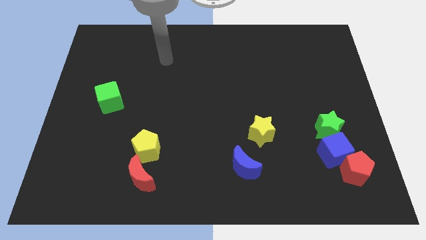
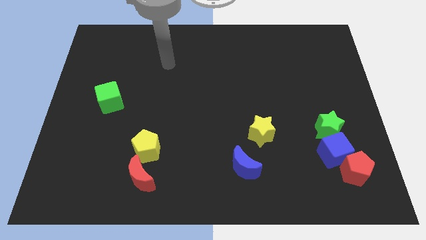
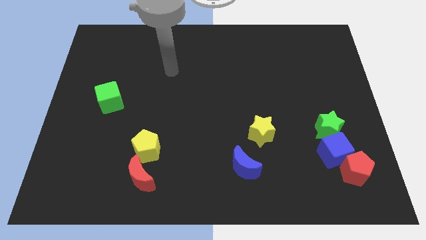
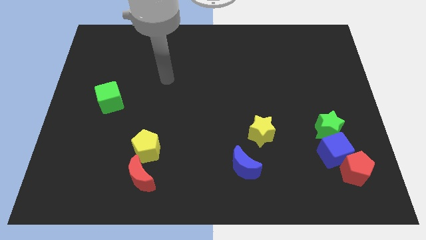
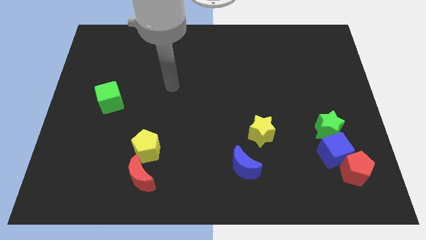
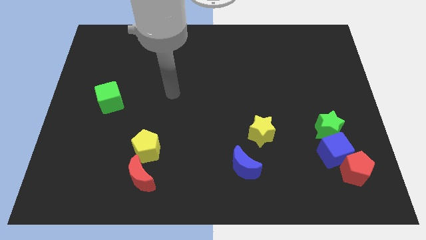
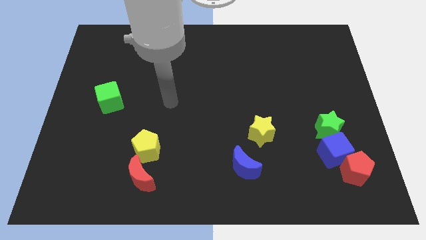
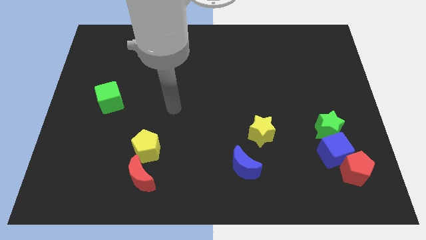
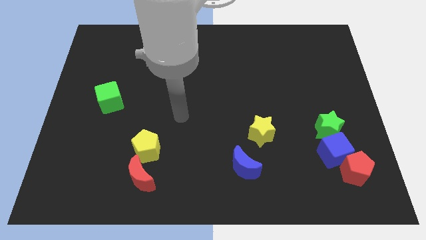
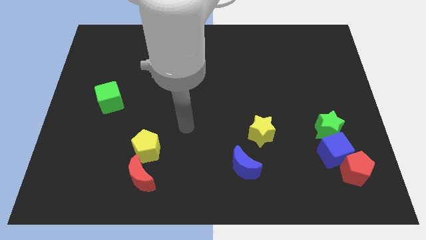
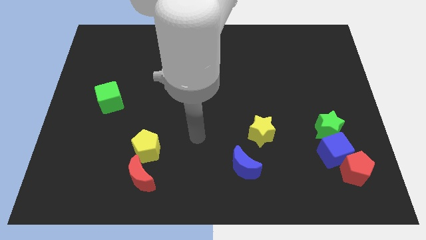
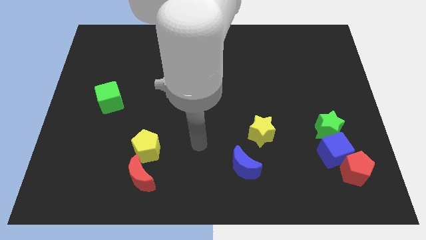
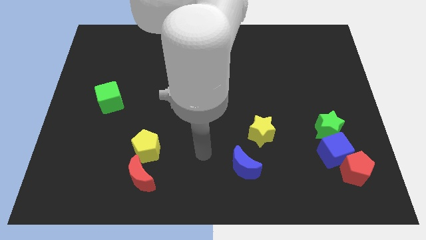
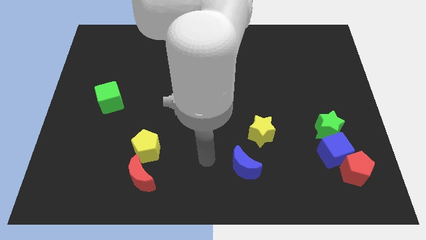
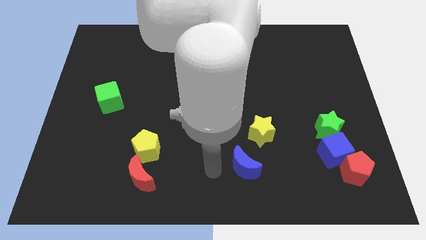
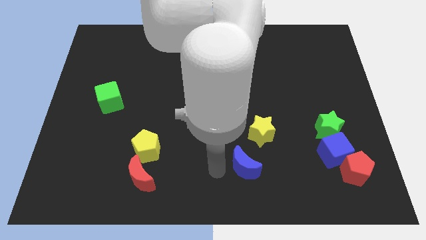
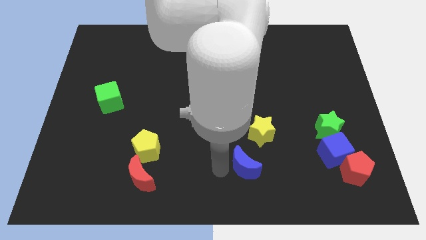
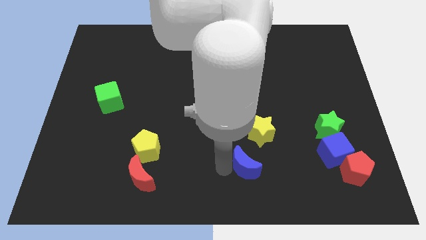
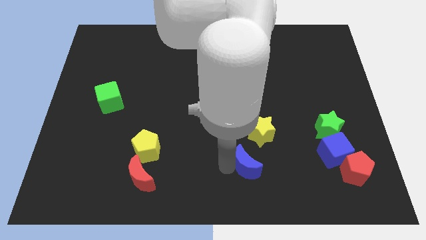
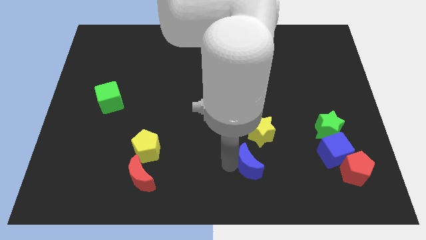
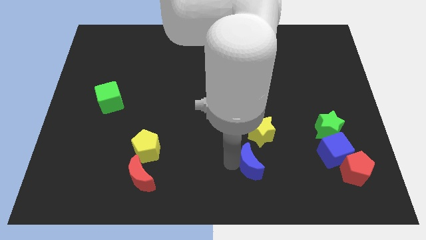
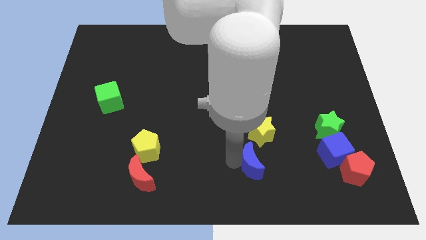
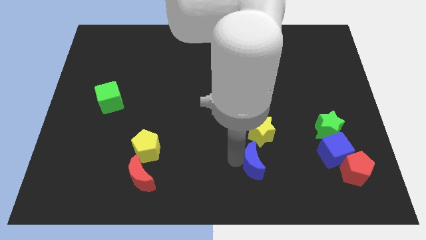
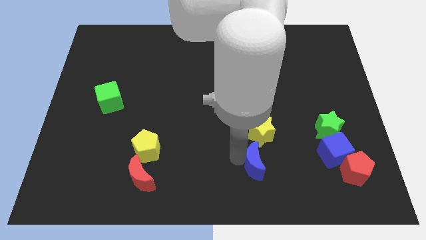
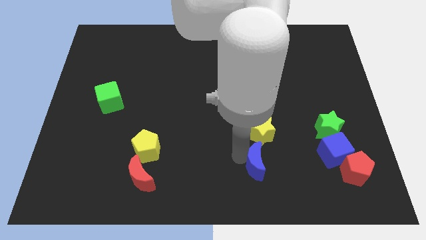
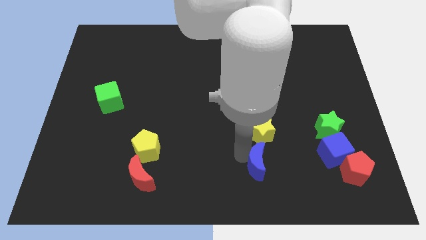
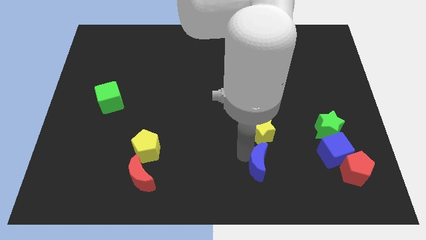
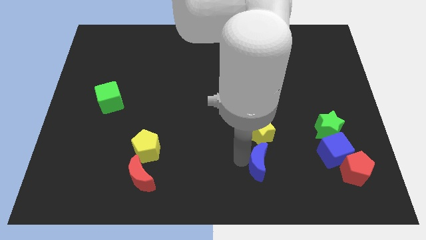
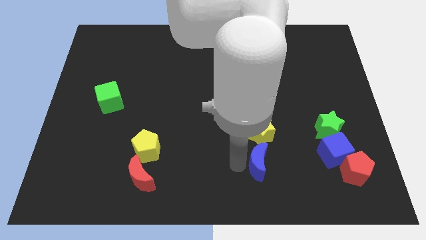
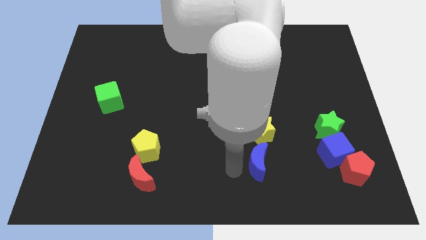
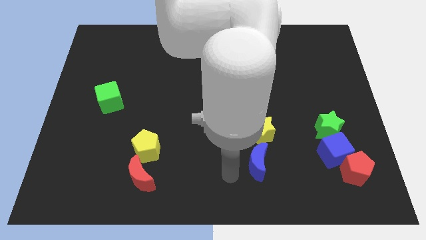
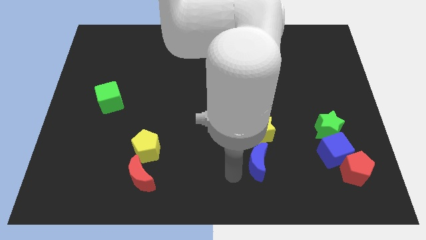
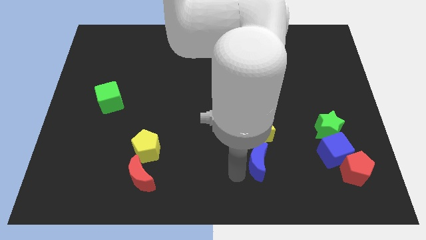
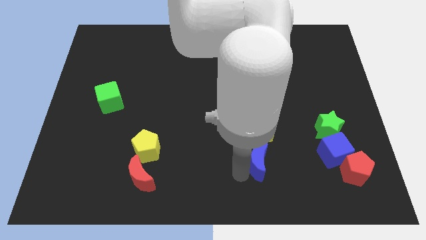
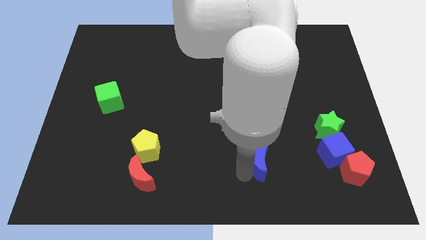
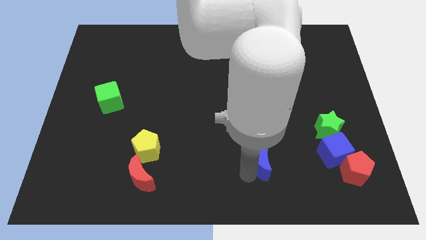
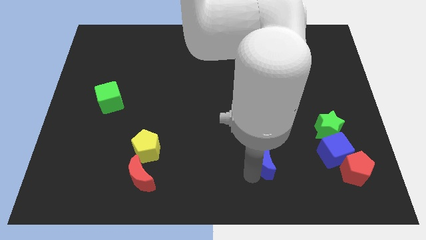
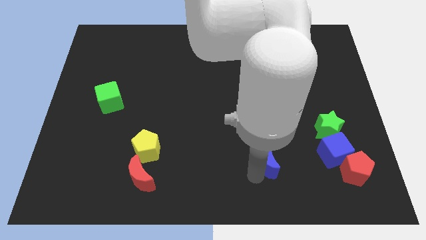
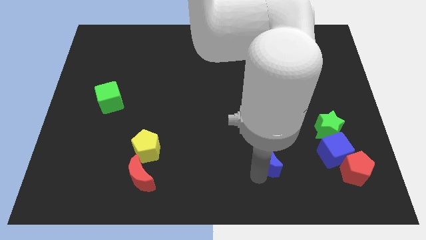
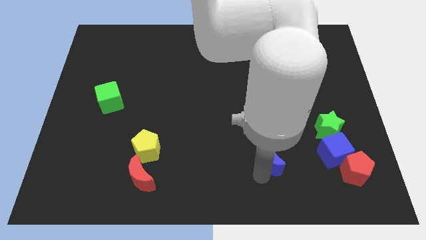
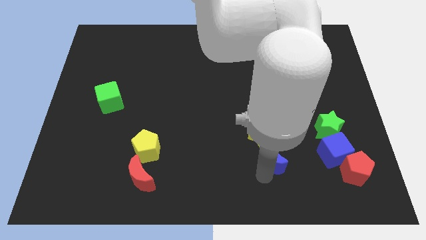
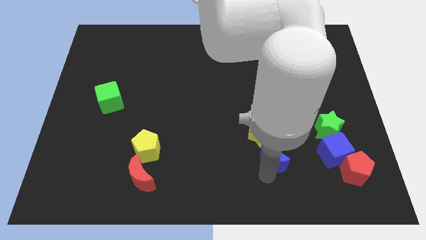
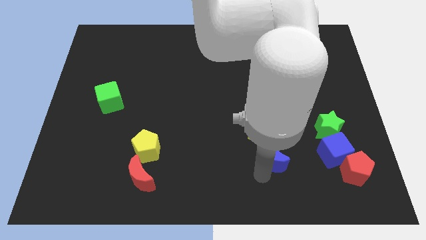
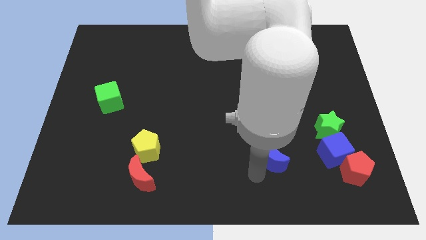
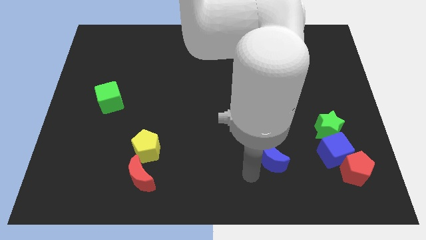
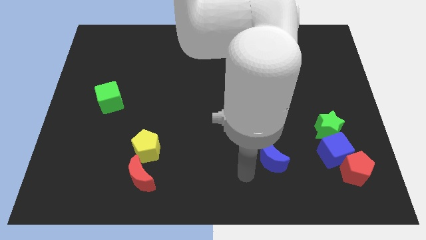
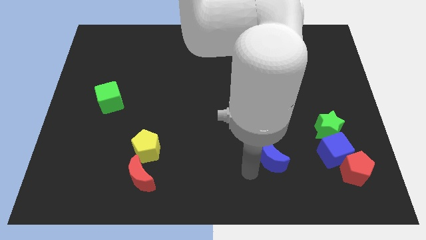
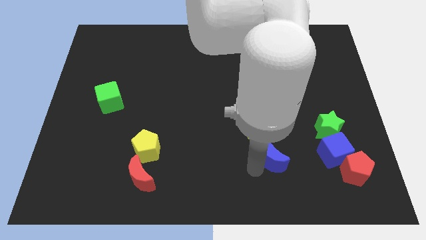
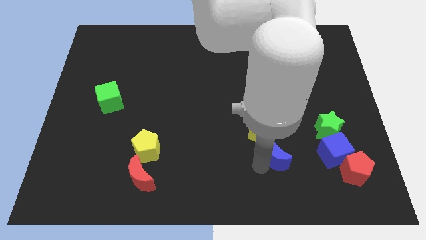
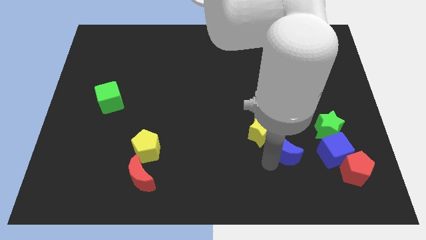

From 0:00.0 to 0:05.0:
move the blue moon a little bit up and then to the right

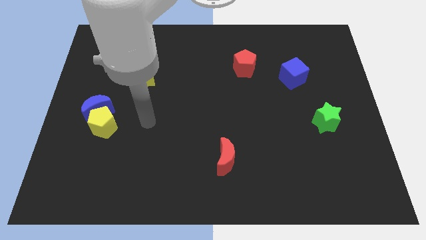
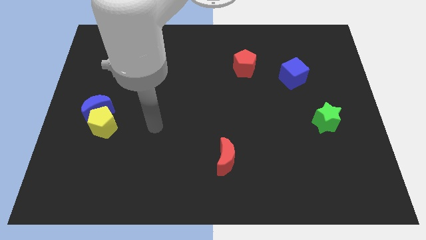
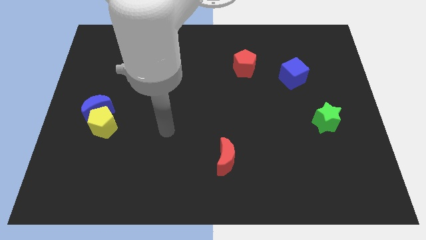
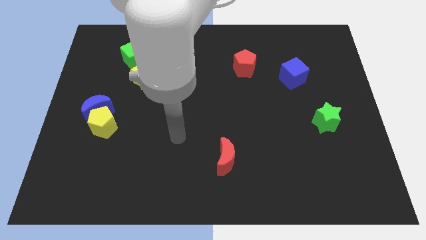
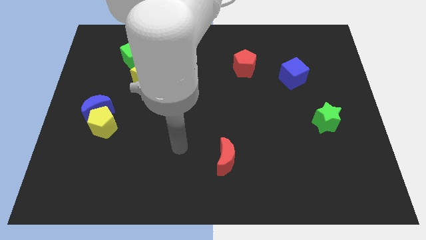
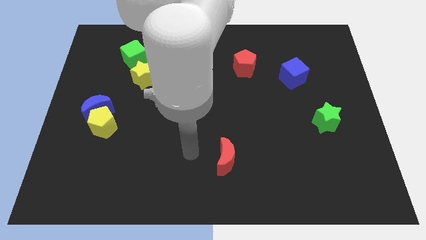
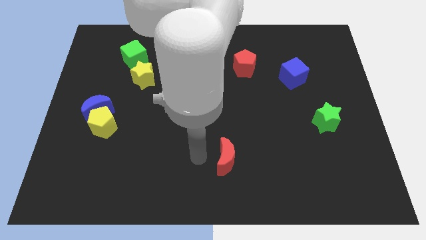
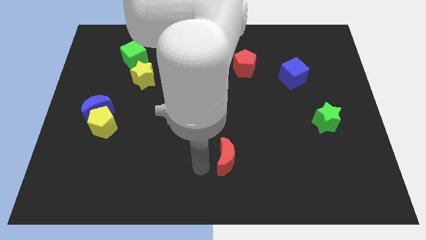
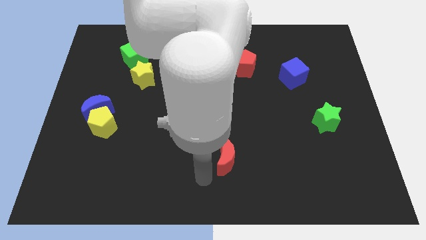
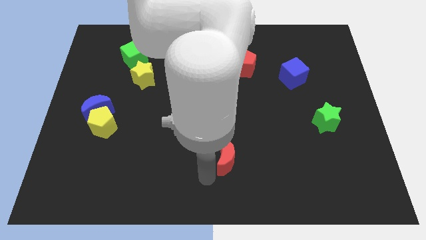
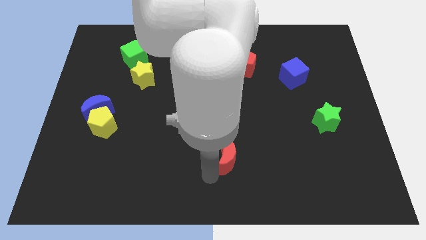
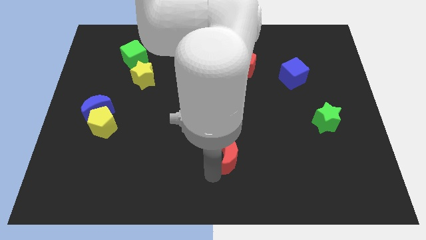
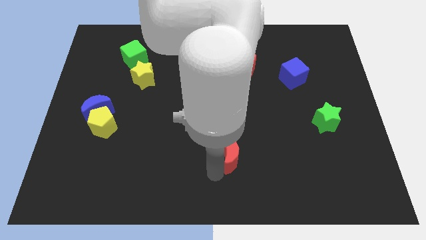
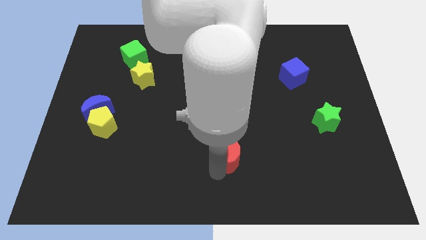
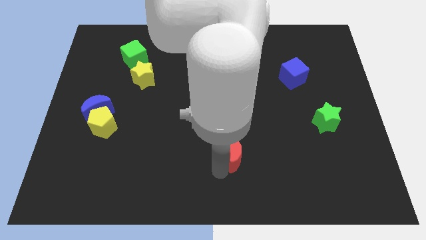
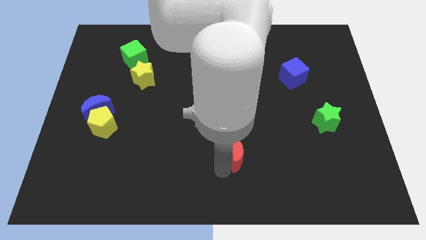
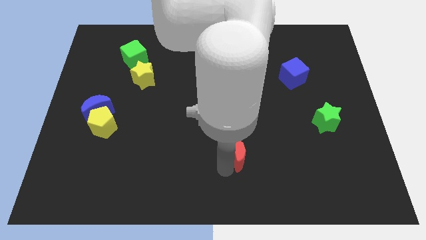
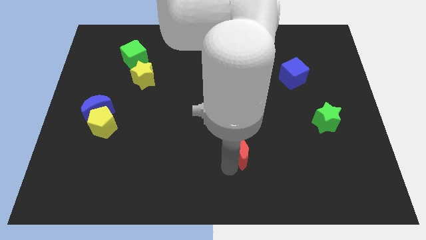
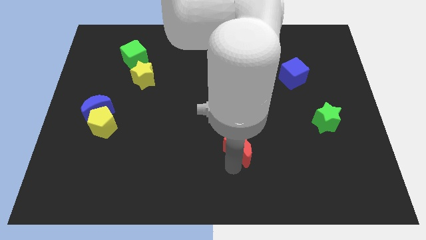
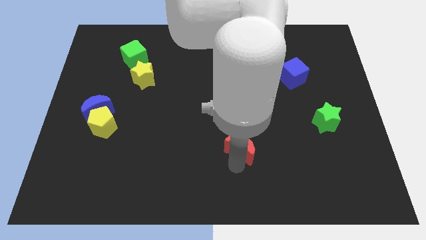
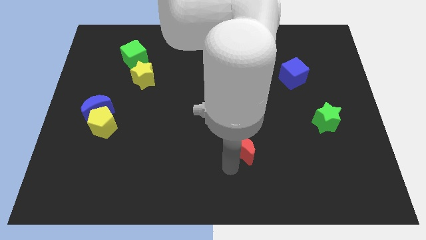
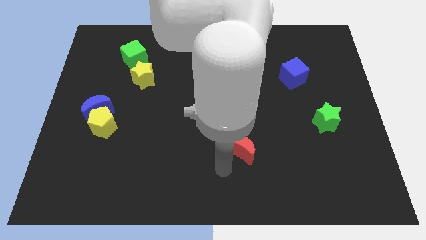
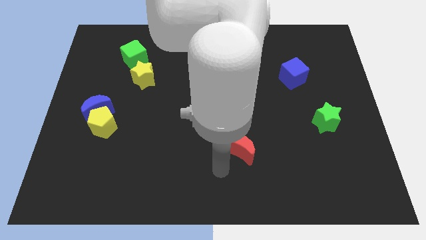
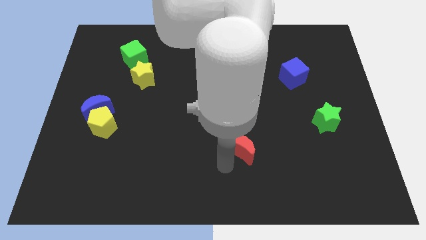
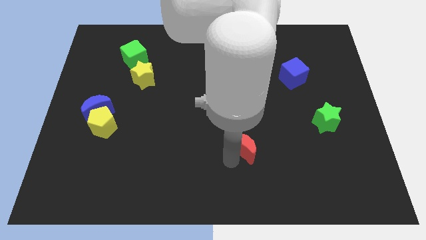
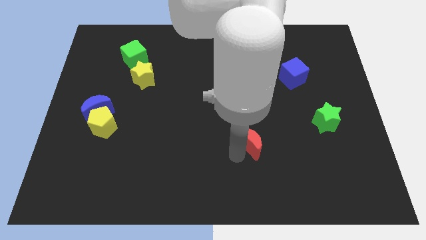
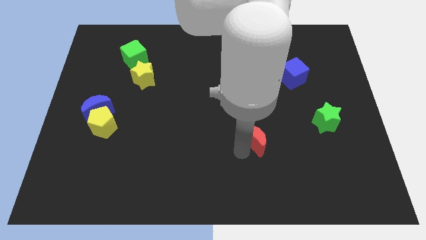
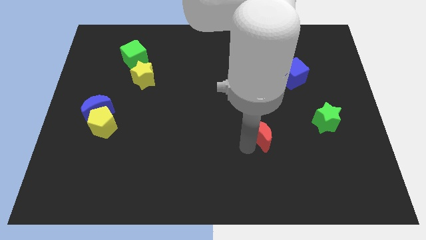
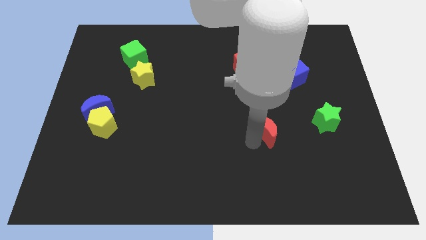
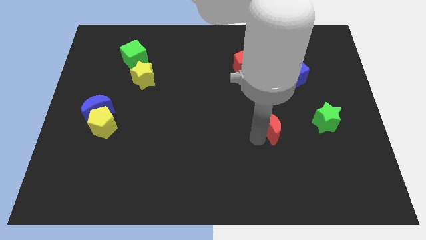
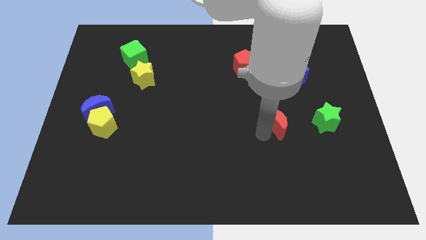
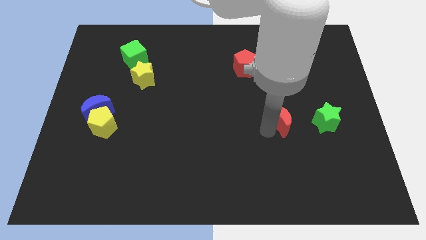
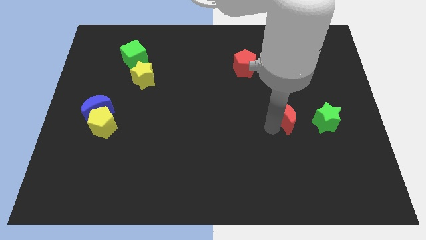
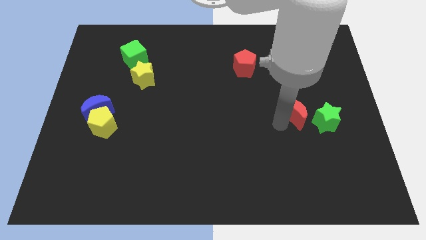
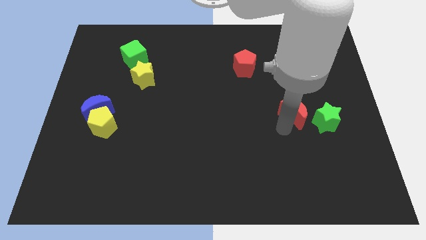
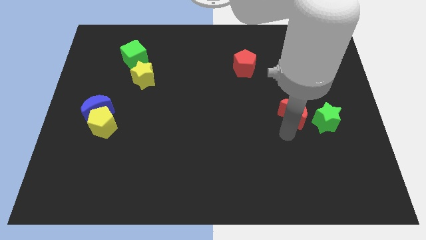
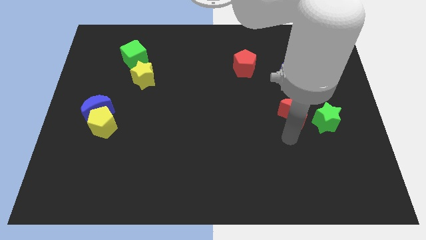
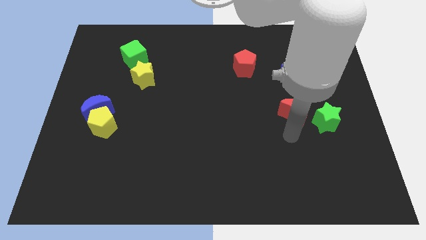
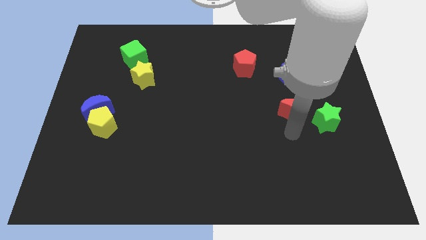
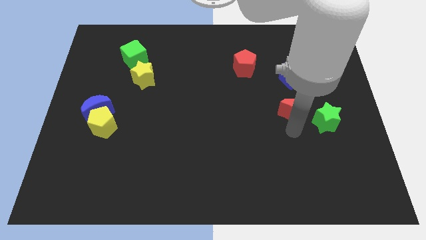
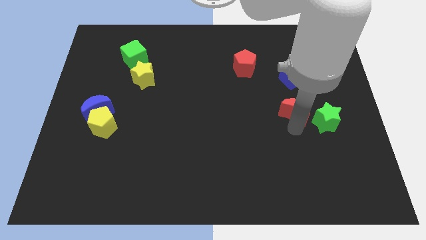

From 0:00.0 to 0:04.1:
push the red moon upwards and right
